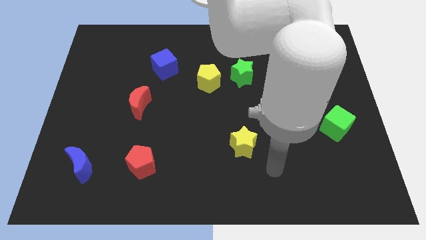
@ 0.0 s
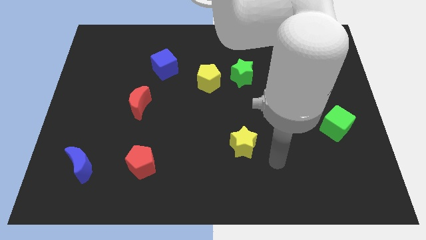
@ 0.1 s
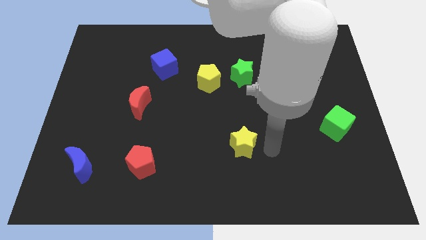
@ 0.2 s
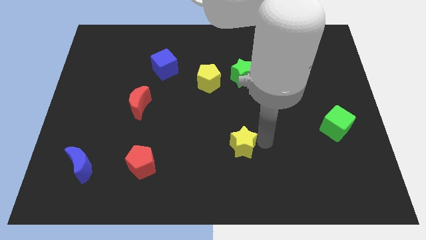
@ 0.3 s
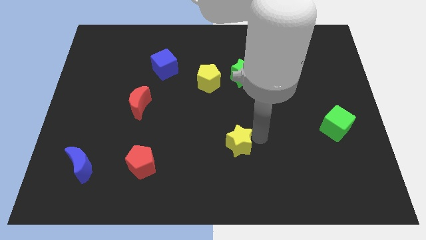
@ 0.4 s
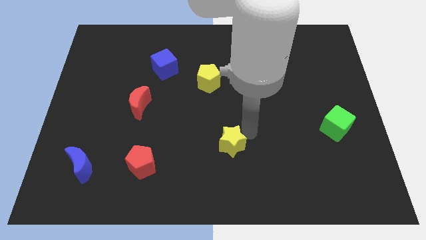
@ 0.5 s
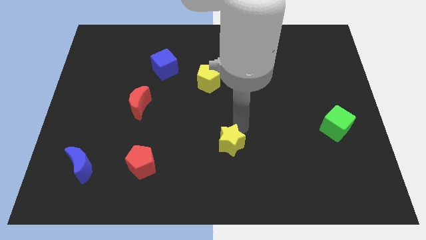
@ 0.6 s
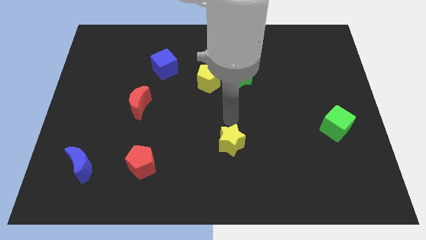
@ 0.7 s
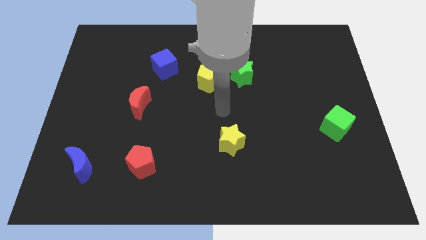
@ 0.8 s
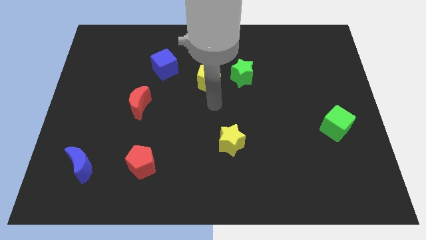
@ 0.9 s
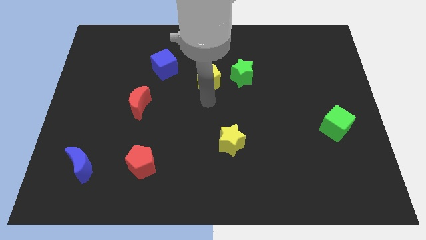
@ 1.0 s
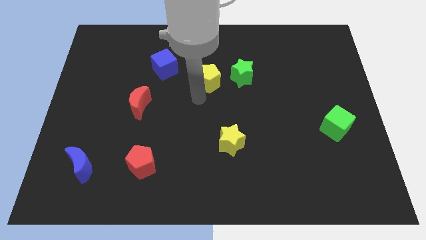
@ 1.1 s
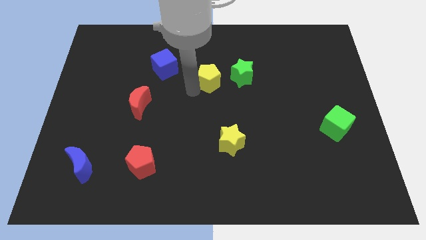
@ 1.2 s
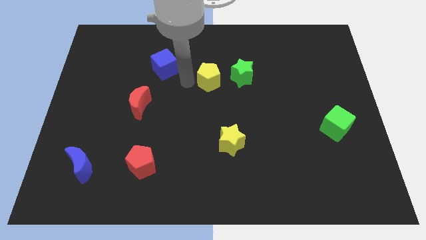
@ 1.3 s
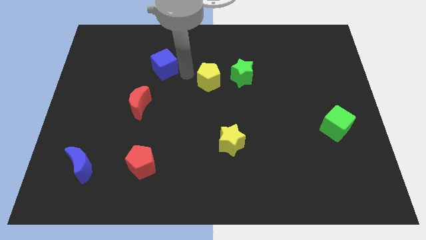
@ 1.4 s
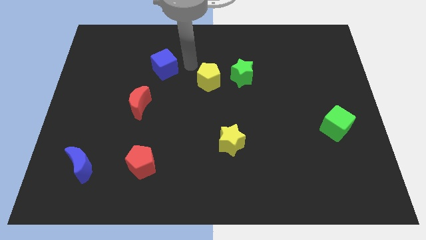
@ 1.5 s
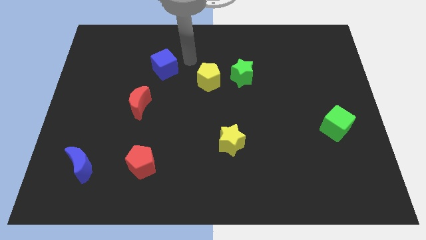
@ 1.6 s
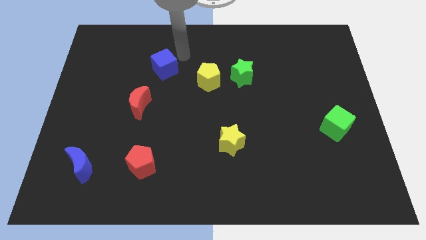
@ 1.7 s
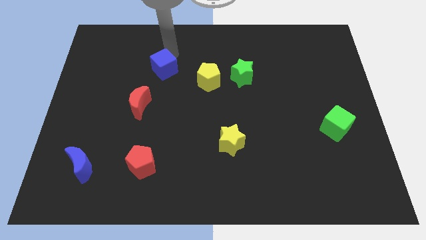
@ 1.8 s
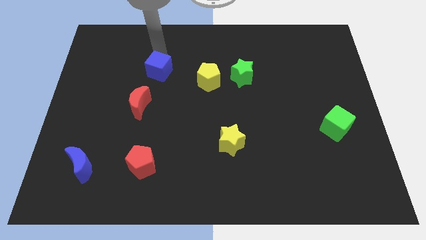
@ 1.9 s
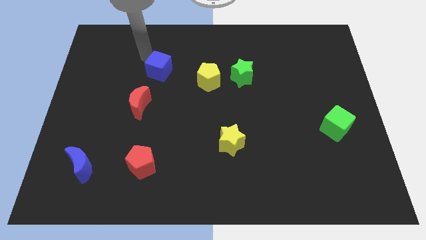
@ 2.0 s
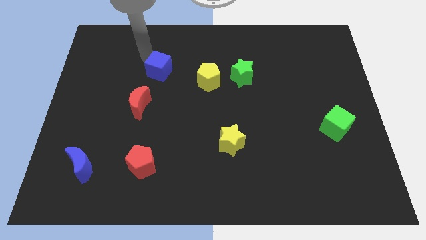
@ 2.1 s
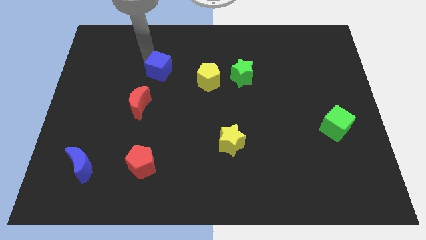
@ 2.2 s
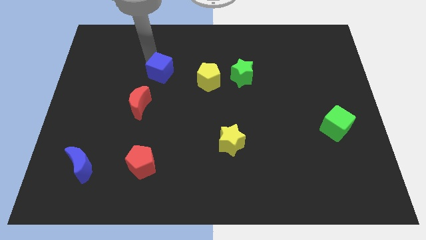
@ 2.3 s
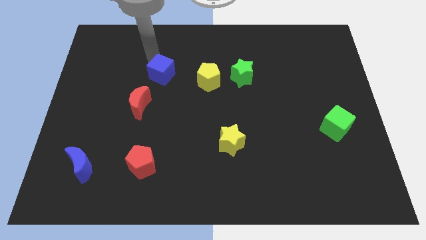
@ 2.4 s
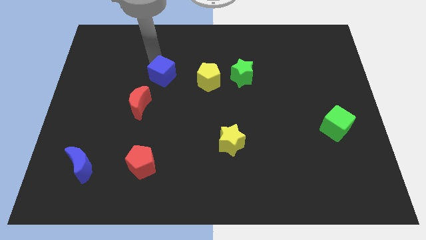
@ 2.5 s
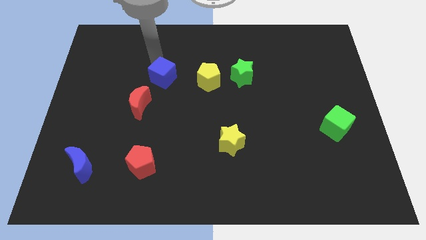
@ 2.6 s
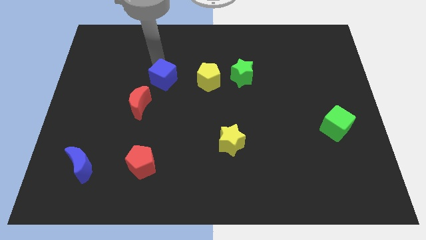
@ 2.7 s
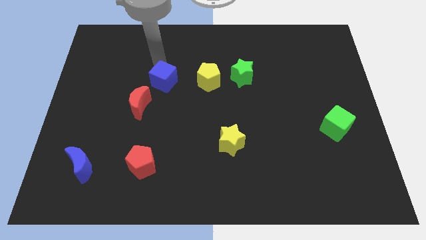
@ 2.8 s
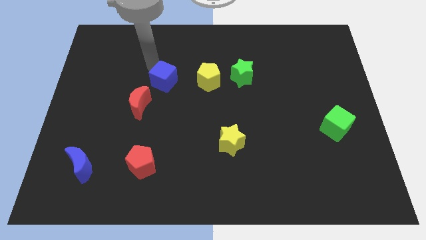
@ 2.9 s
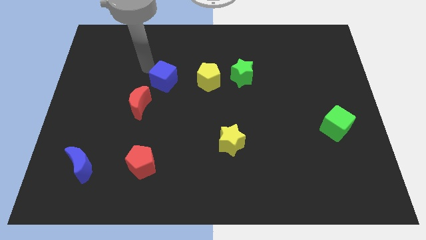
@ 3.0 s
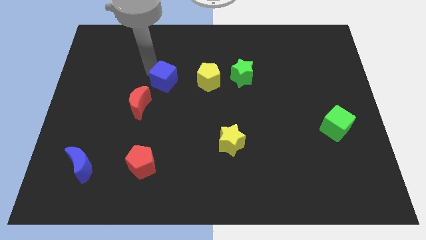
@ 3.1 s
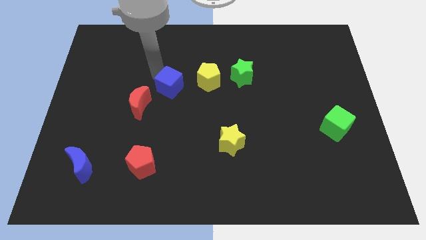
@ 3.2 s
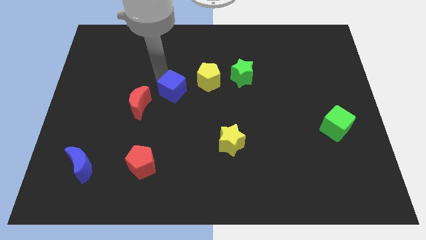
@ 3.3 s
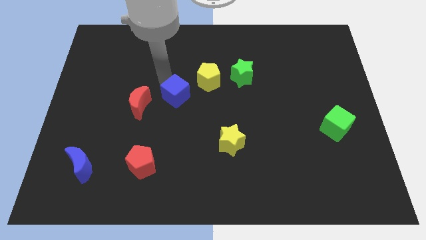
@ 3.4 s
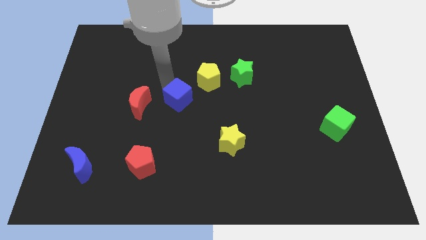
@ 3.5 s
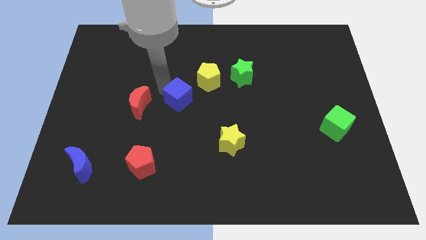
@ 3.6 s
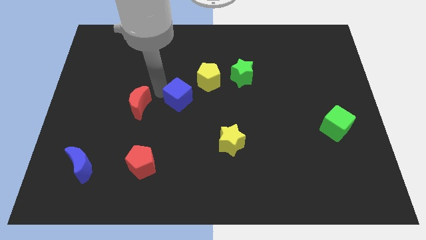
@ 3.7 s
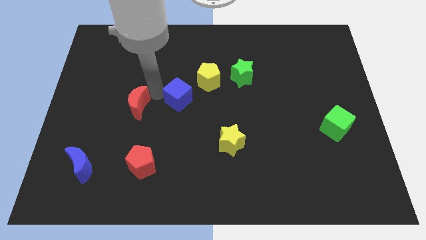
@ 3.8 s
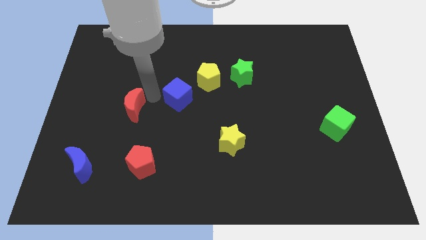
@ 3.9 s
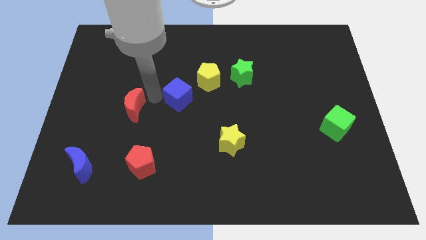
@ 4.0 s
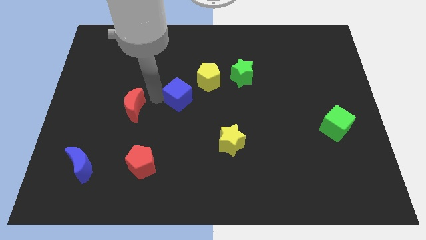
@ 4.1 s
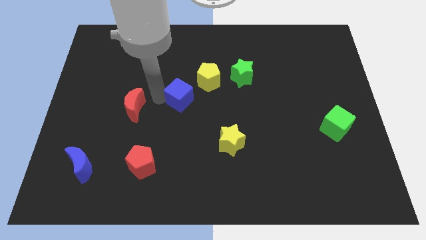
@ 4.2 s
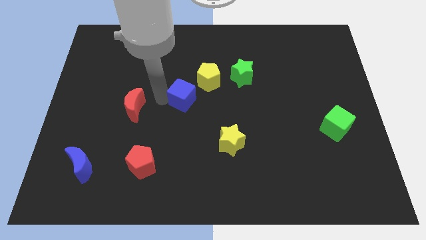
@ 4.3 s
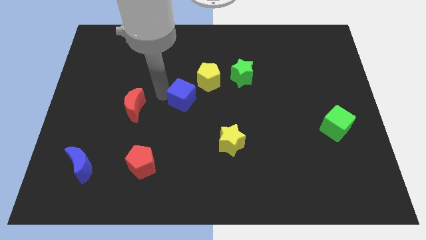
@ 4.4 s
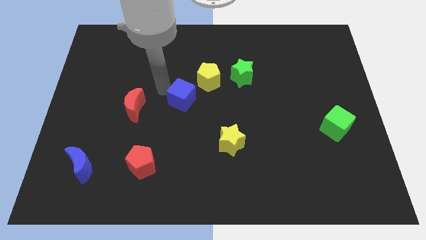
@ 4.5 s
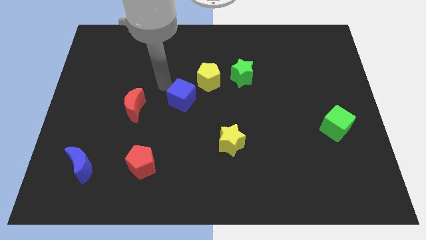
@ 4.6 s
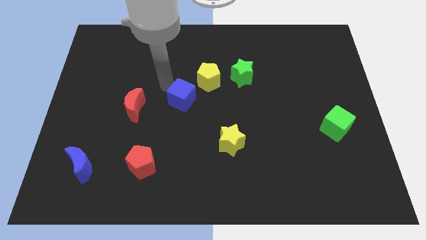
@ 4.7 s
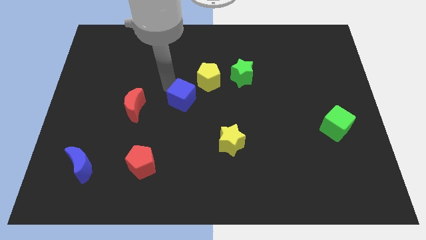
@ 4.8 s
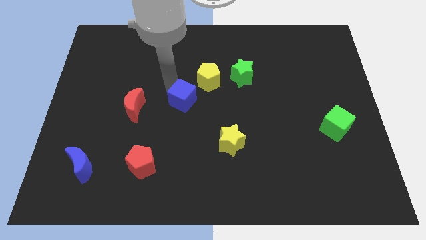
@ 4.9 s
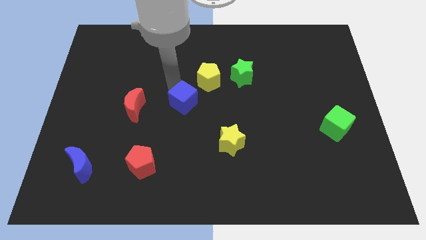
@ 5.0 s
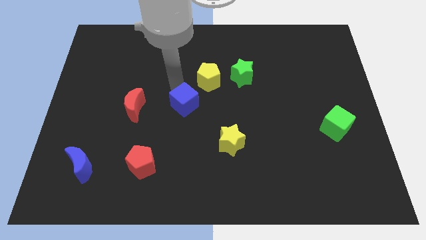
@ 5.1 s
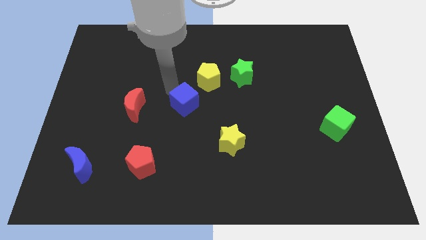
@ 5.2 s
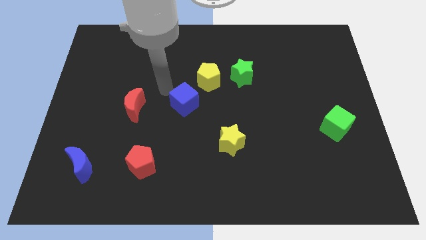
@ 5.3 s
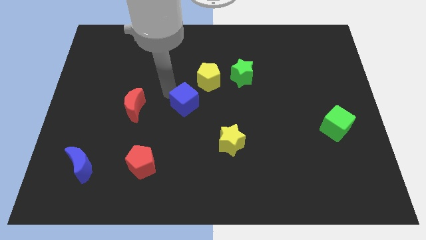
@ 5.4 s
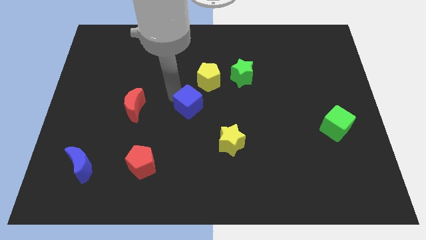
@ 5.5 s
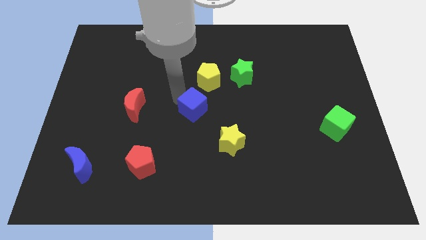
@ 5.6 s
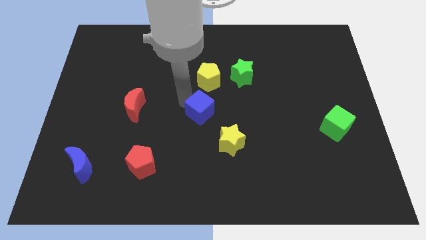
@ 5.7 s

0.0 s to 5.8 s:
put the blue cube to the top left of the yellow star

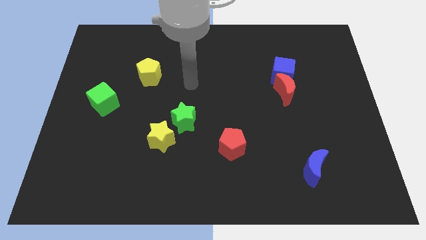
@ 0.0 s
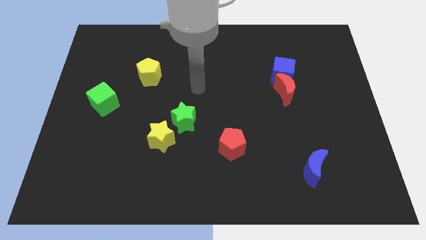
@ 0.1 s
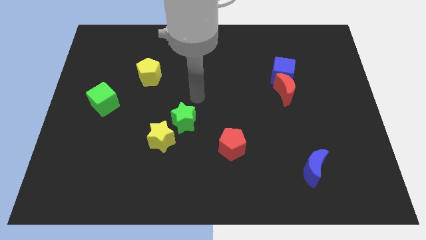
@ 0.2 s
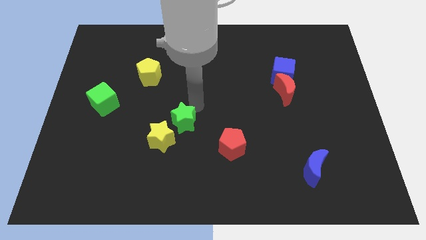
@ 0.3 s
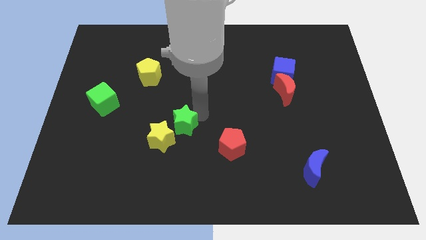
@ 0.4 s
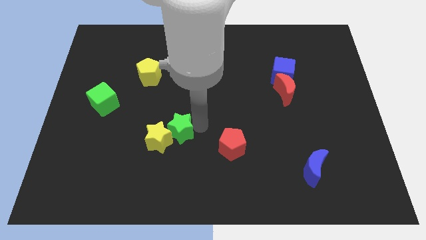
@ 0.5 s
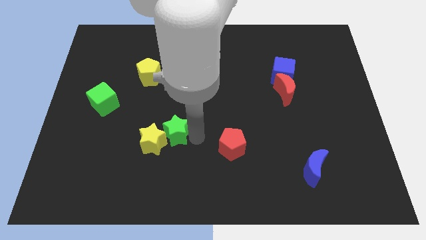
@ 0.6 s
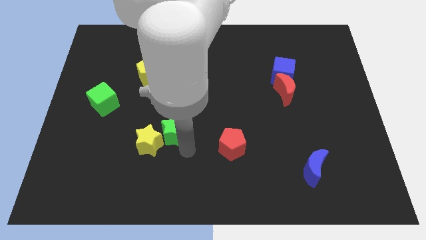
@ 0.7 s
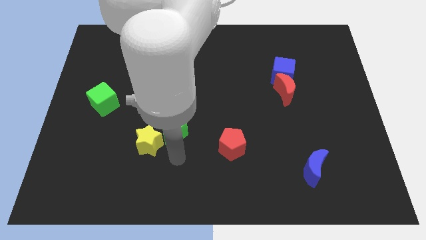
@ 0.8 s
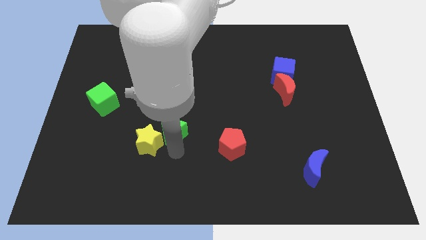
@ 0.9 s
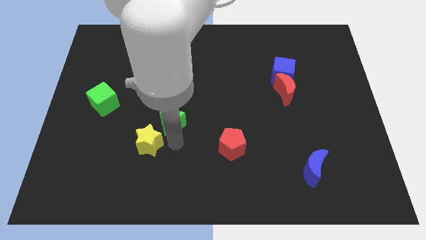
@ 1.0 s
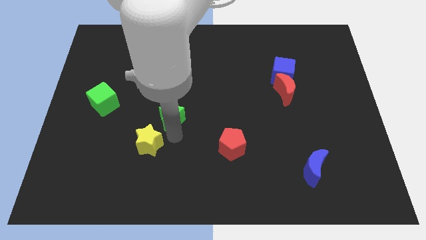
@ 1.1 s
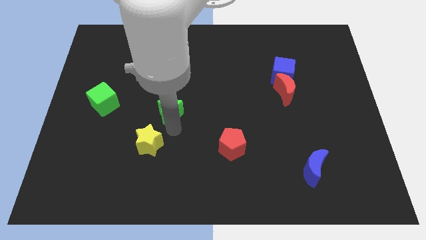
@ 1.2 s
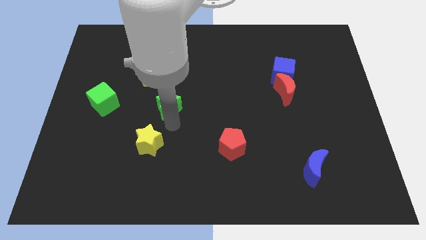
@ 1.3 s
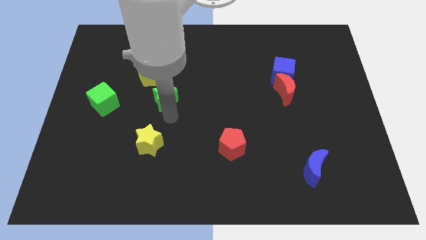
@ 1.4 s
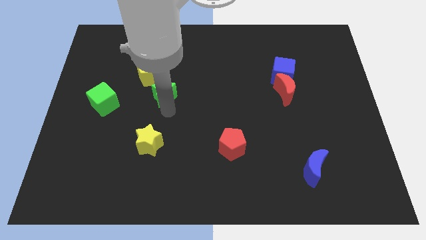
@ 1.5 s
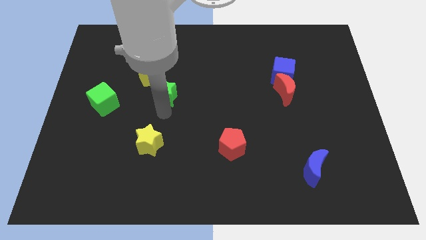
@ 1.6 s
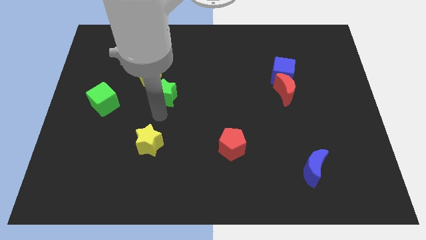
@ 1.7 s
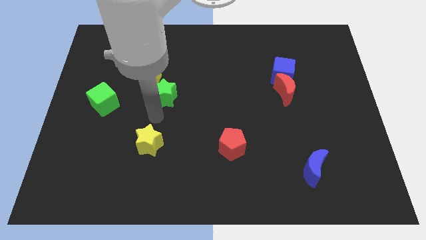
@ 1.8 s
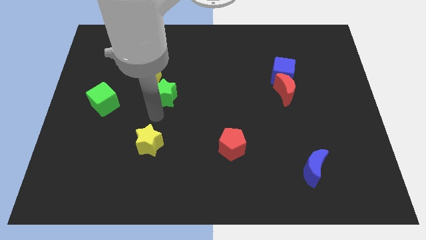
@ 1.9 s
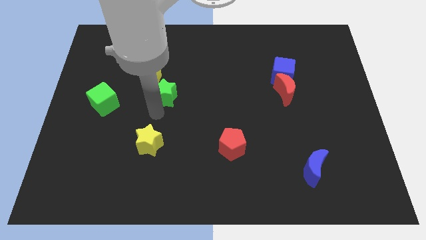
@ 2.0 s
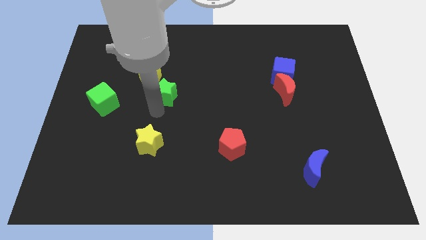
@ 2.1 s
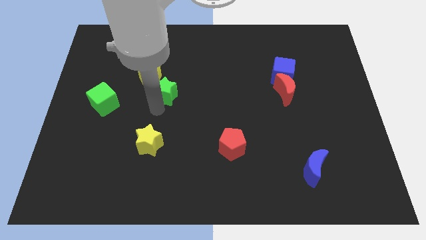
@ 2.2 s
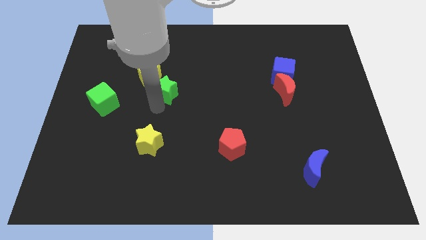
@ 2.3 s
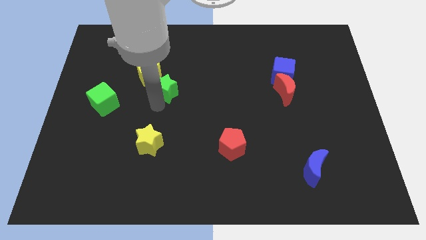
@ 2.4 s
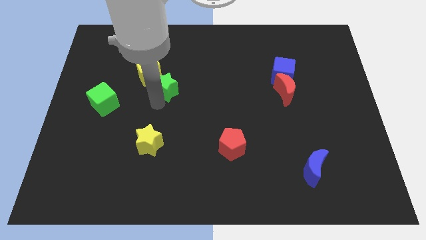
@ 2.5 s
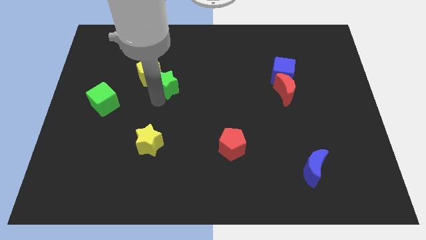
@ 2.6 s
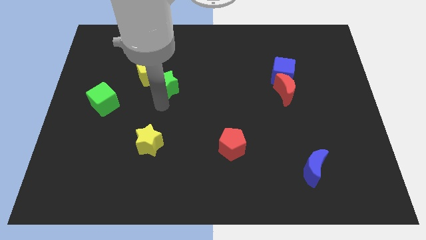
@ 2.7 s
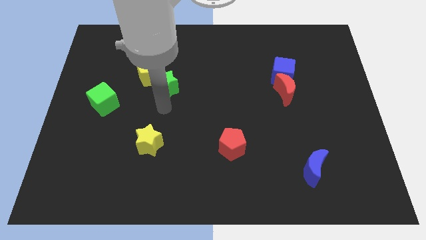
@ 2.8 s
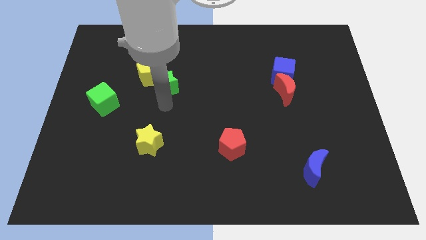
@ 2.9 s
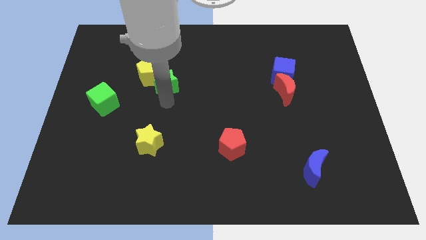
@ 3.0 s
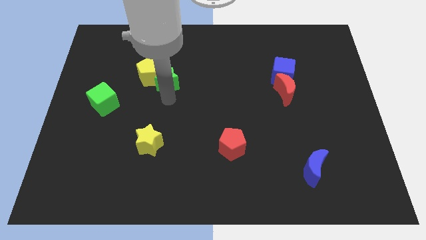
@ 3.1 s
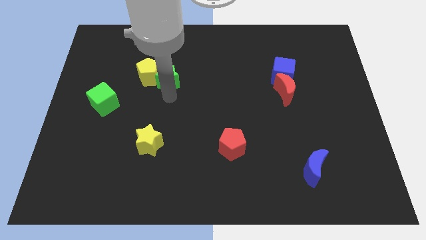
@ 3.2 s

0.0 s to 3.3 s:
move the green star diagonally up and to the right of the yellow pentagon
